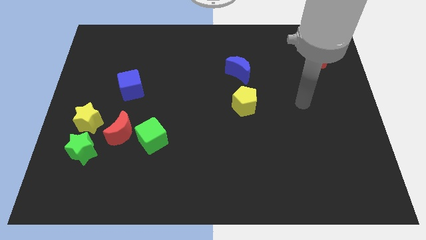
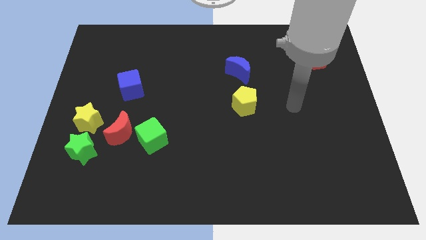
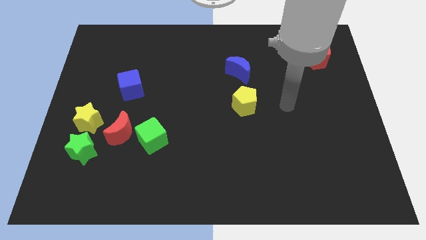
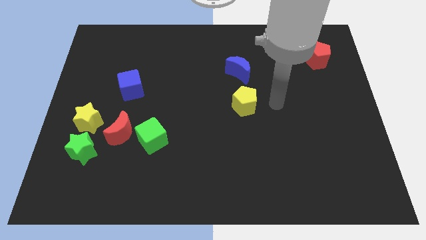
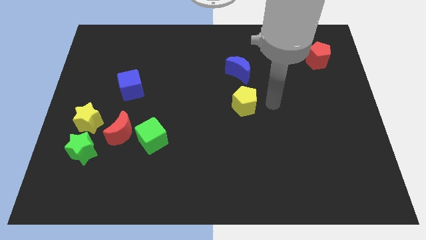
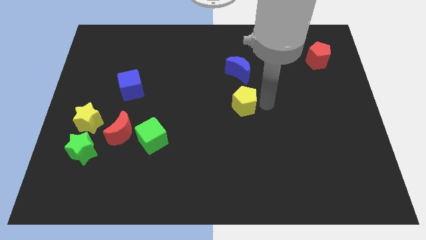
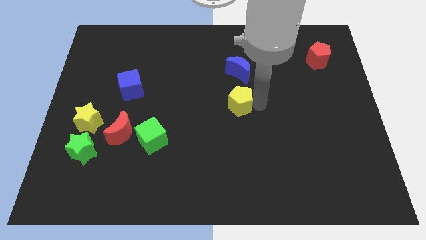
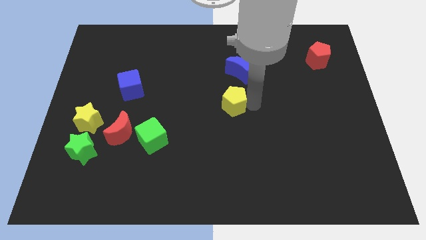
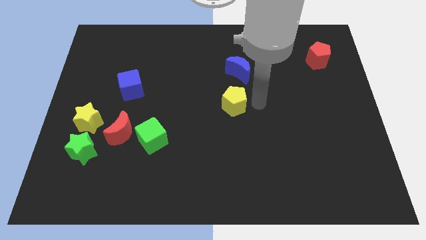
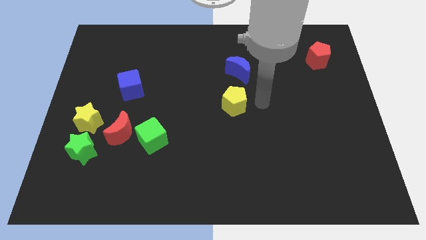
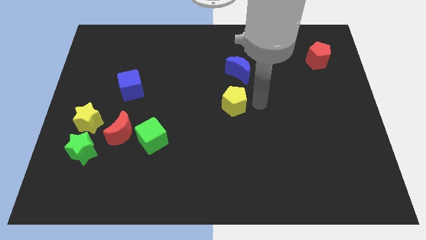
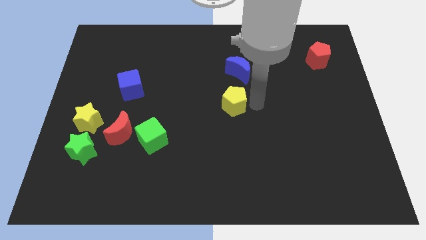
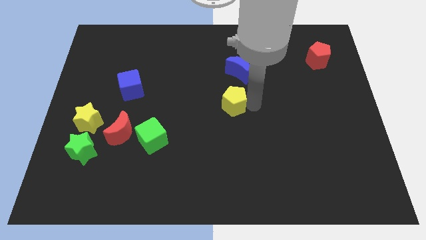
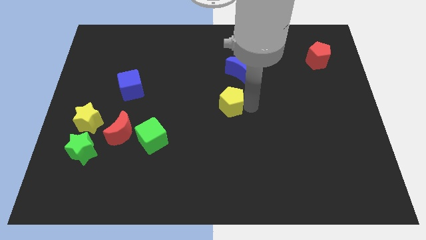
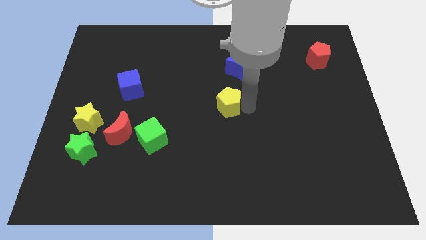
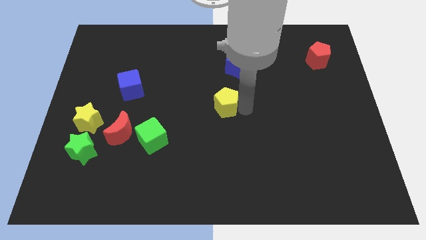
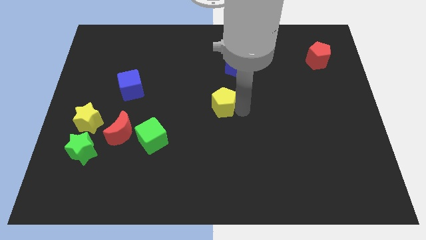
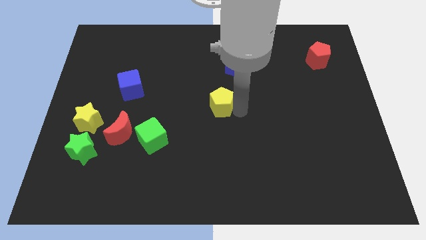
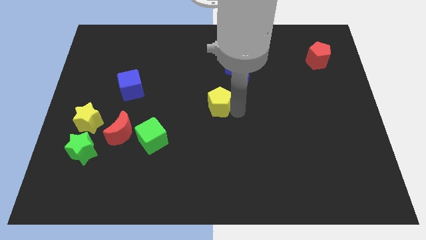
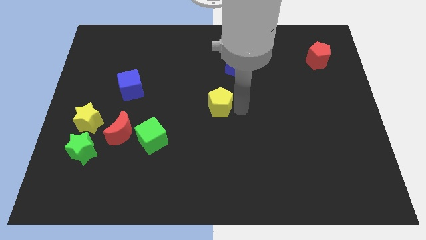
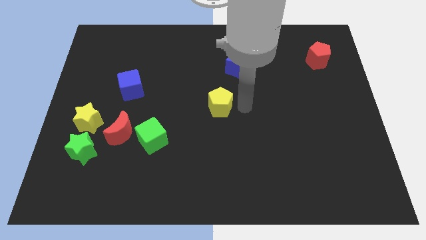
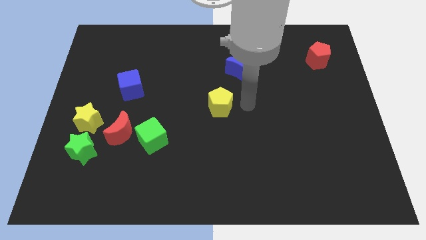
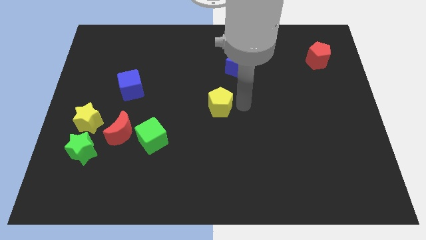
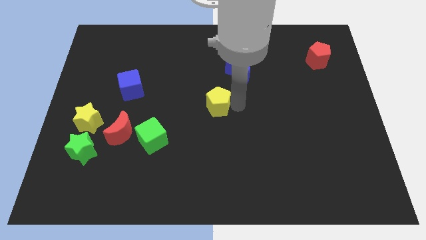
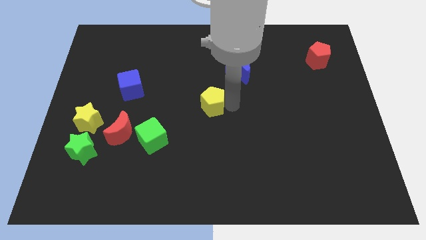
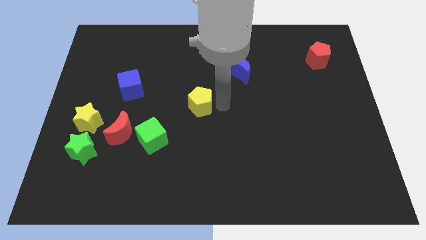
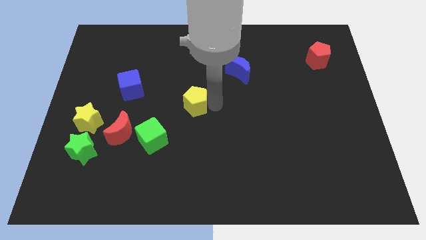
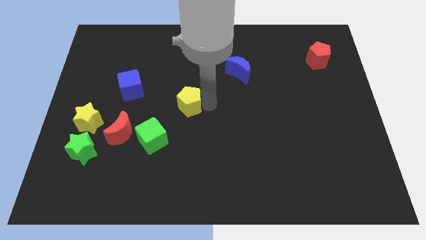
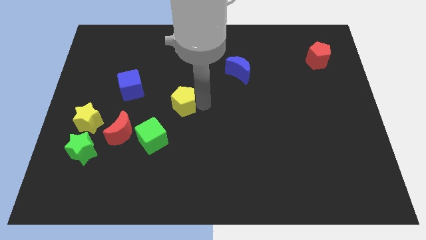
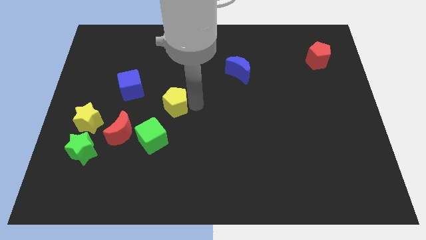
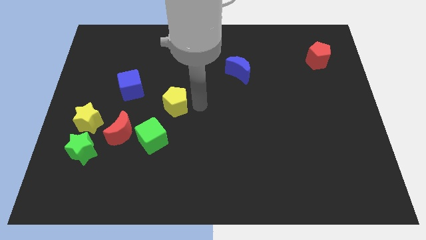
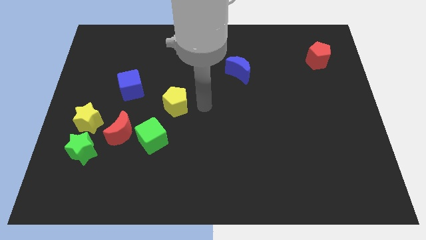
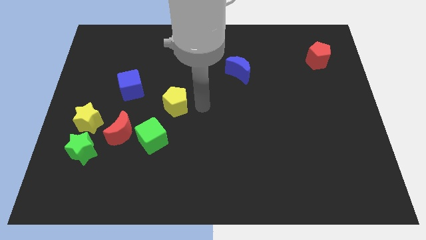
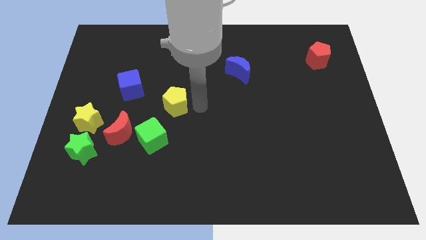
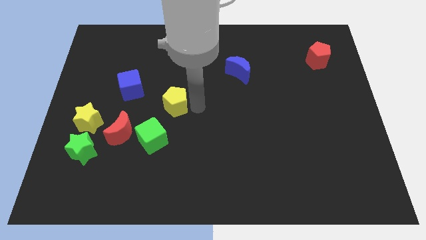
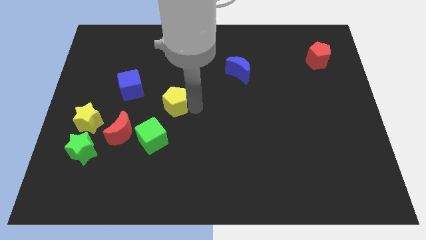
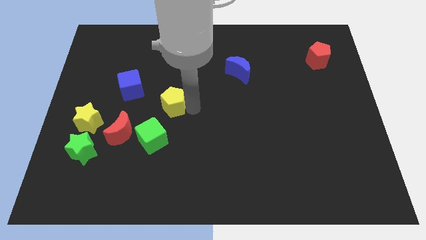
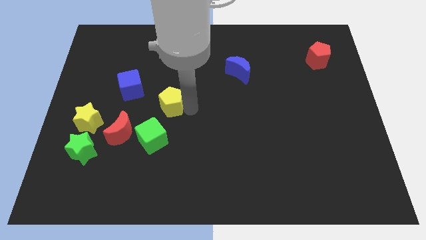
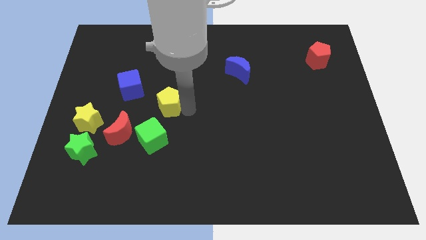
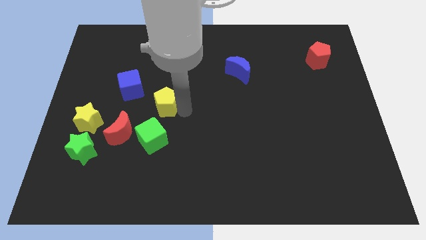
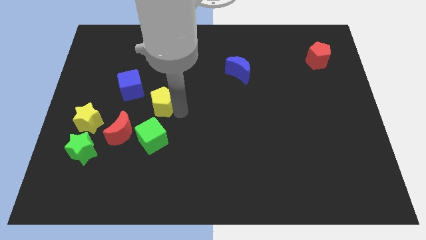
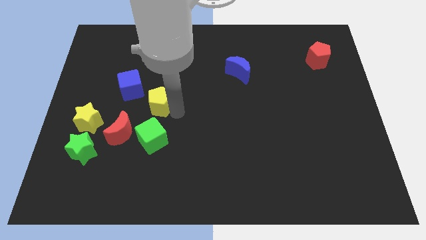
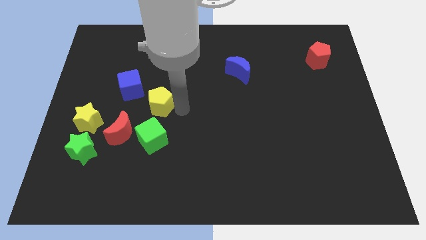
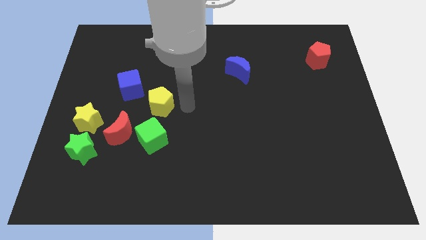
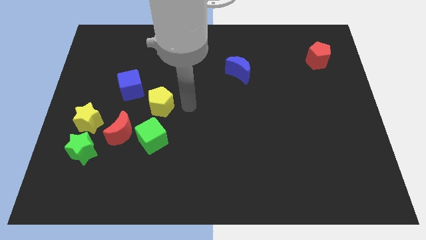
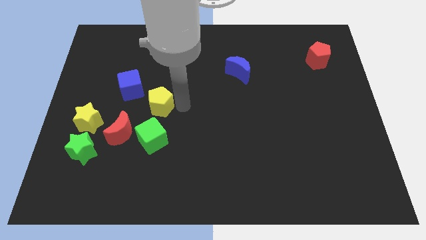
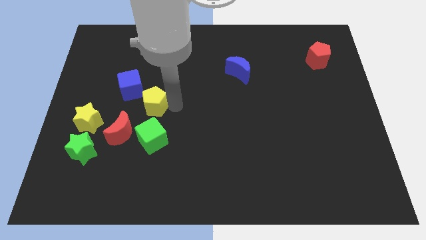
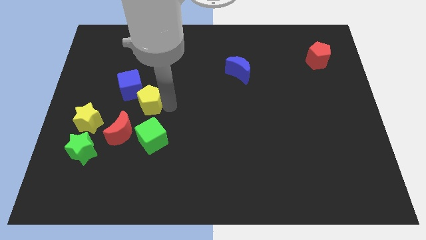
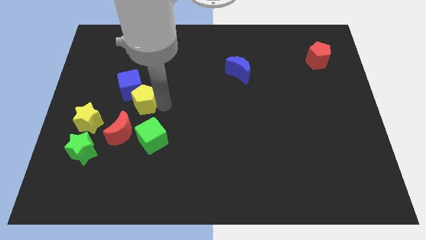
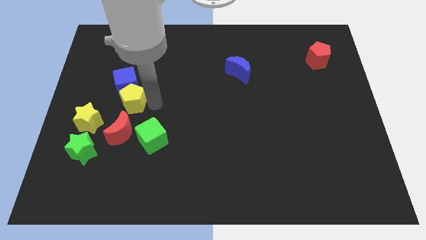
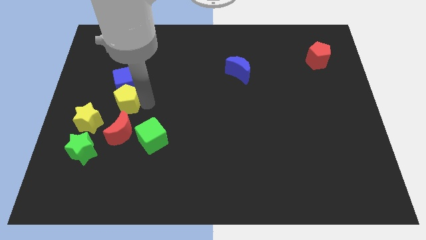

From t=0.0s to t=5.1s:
put the yellow pentagon to the bottom left side of the blue cube

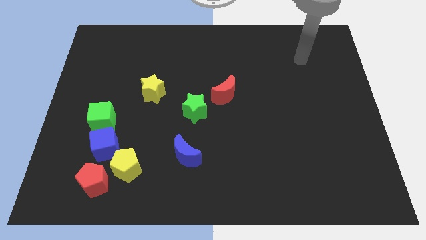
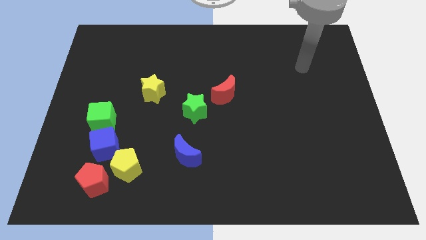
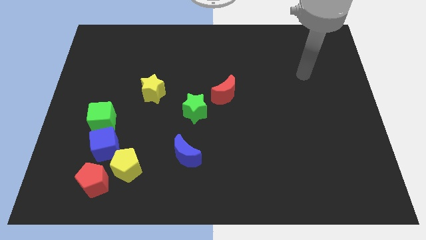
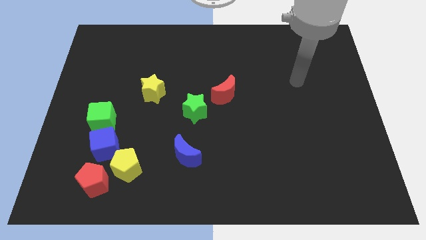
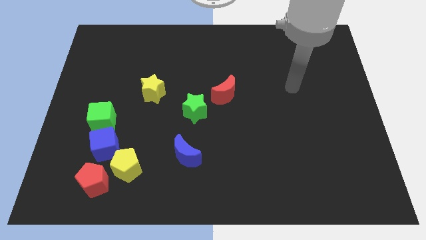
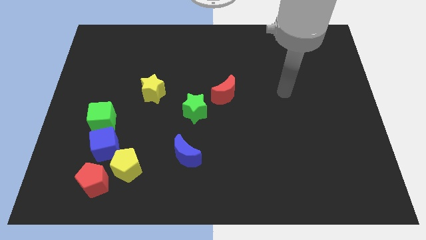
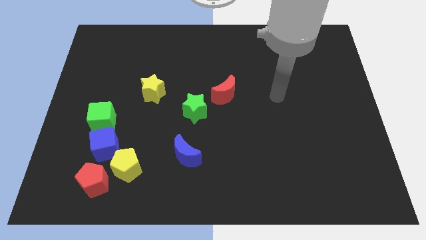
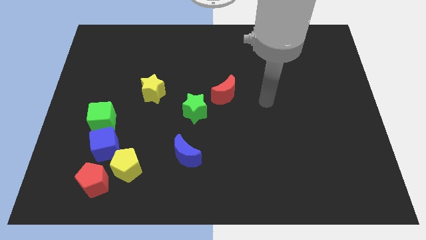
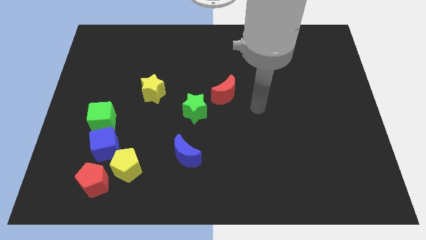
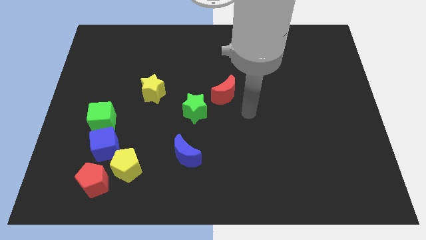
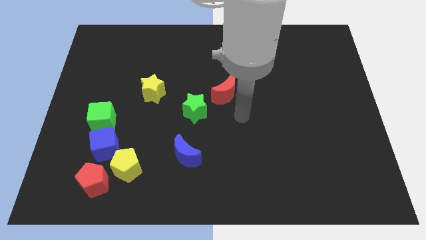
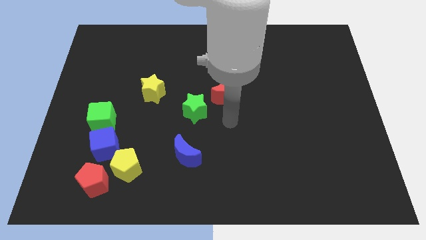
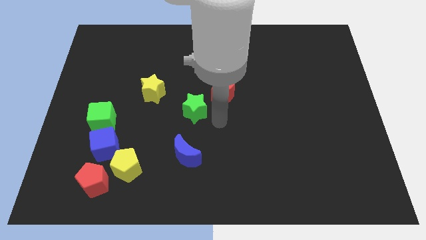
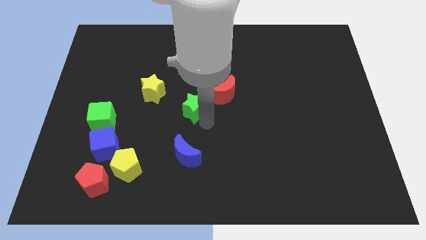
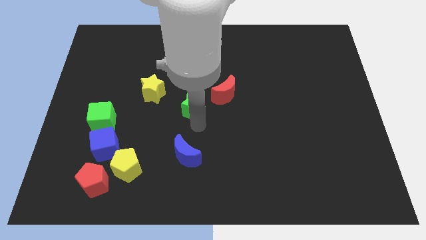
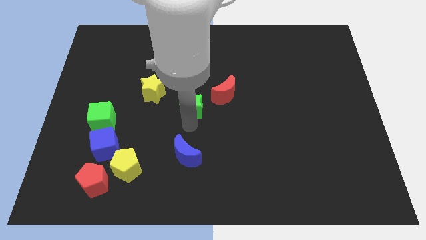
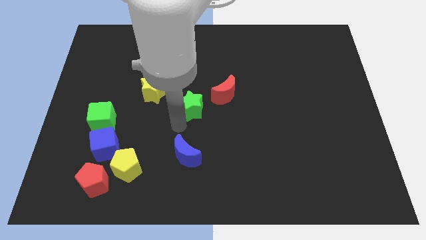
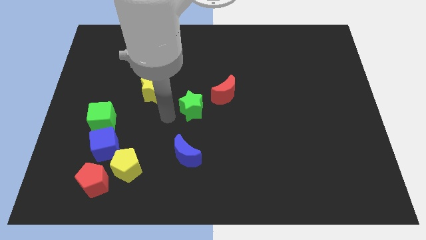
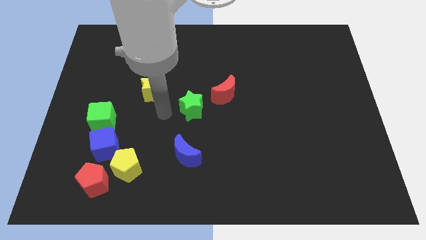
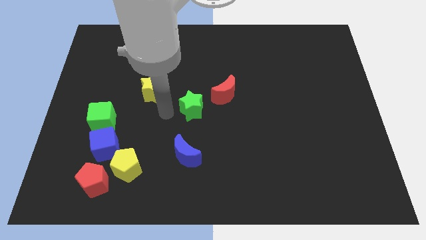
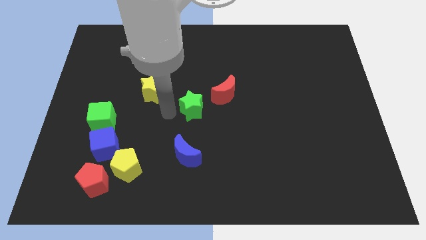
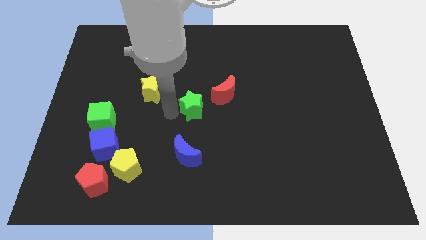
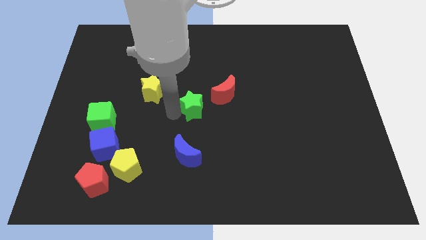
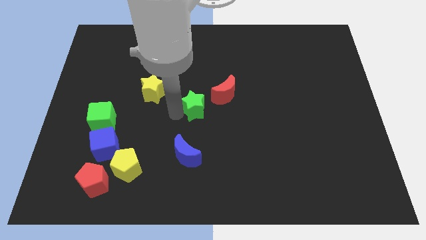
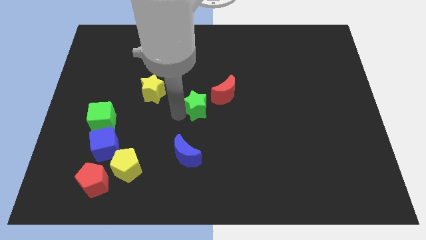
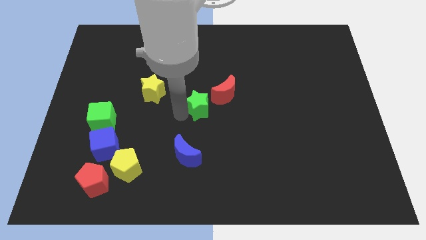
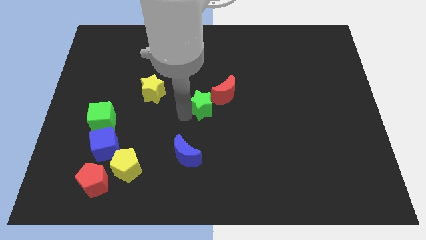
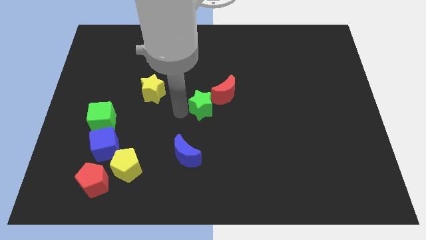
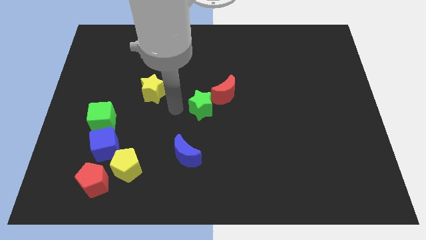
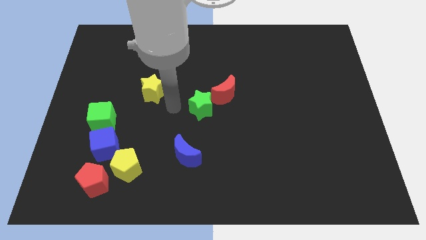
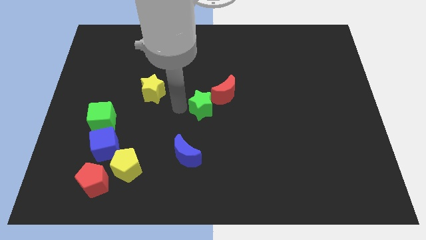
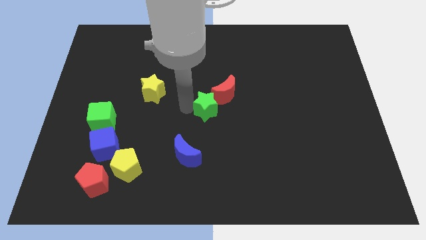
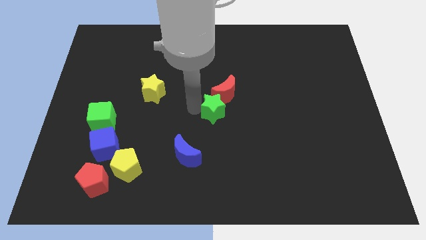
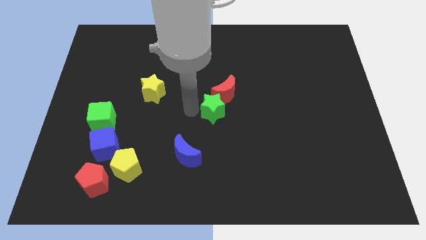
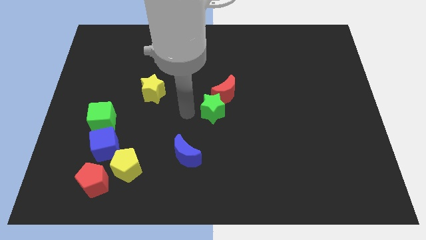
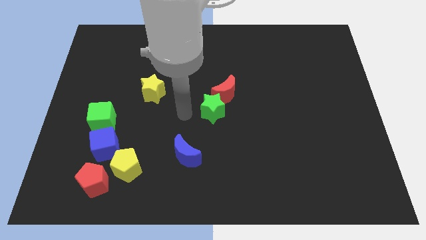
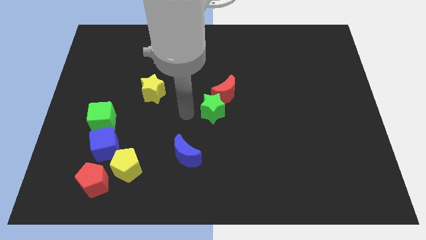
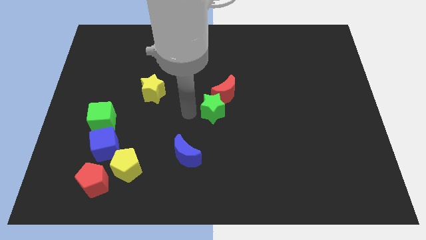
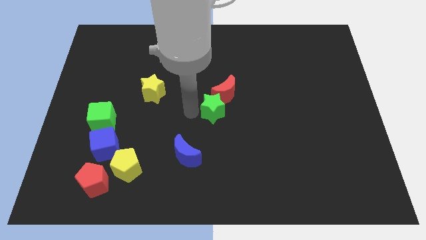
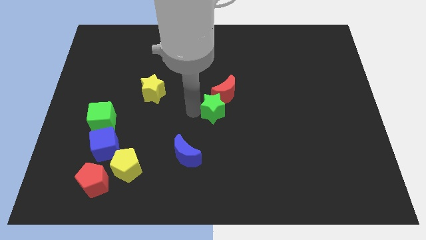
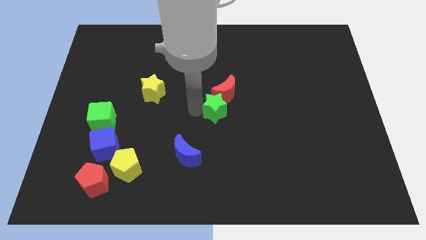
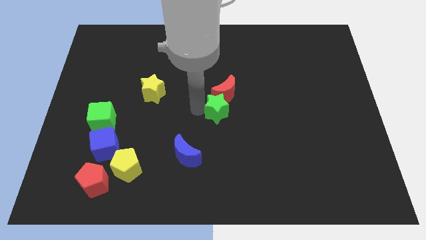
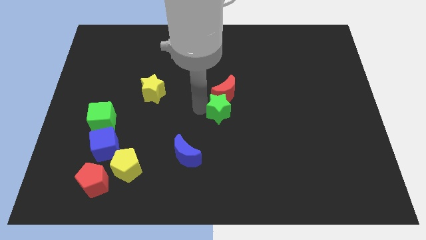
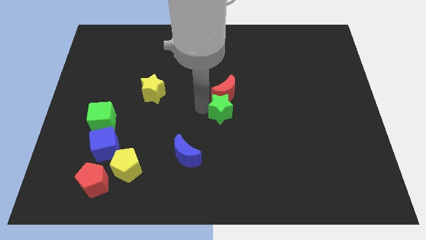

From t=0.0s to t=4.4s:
move the green star diagonally down and to the right of the red moon
